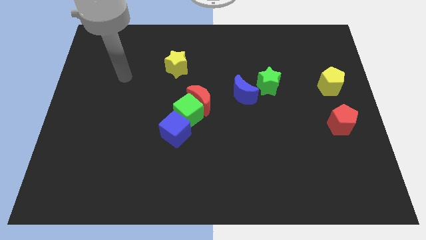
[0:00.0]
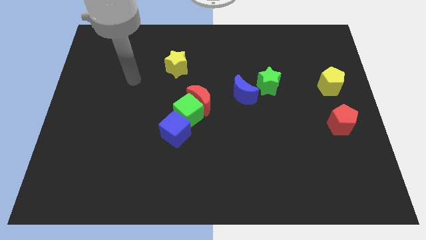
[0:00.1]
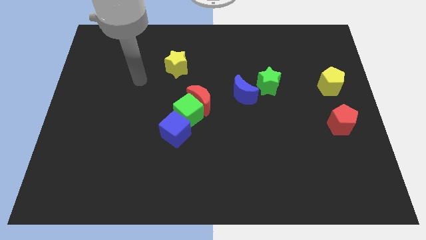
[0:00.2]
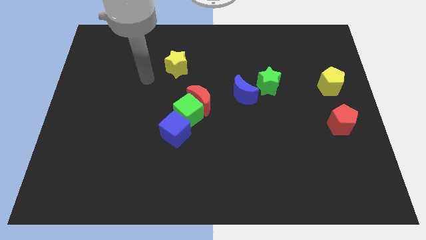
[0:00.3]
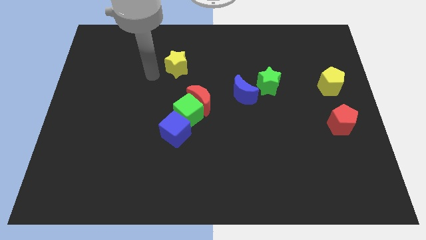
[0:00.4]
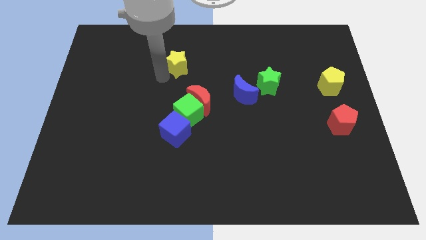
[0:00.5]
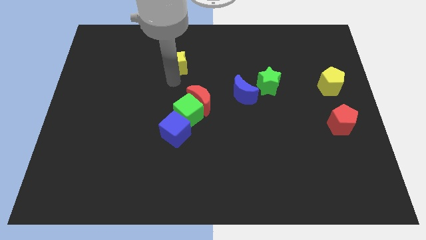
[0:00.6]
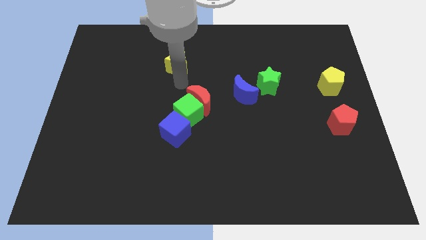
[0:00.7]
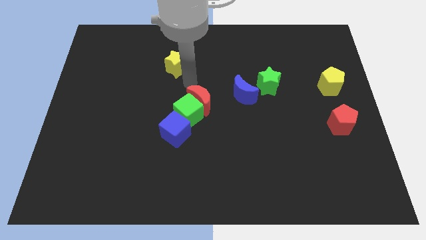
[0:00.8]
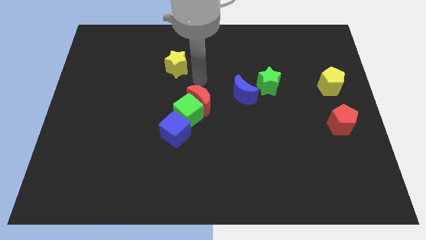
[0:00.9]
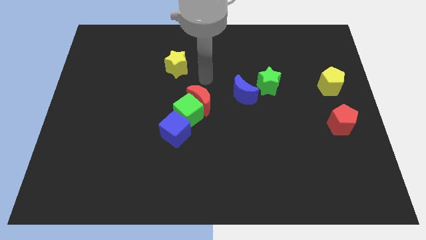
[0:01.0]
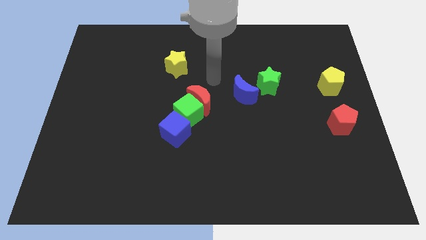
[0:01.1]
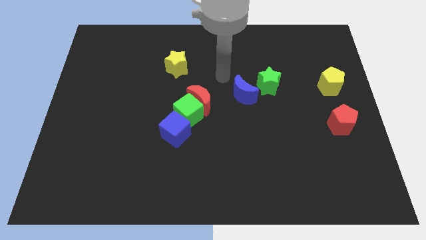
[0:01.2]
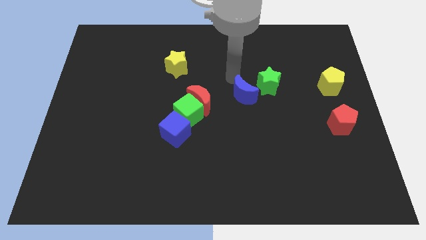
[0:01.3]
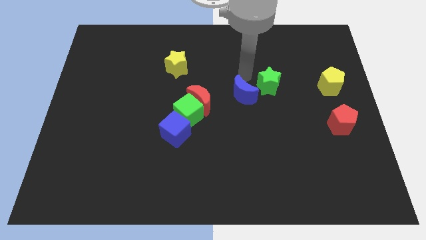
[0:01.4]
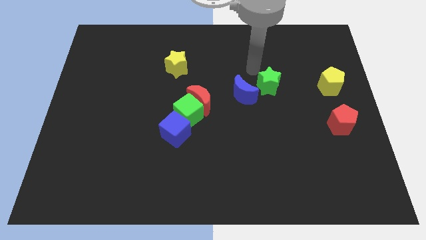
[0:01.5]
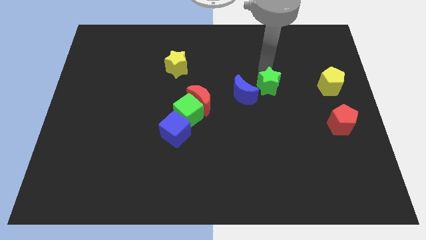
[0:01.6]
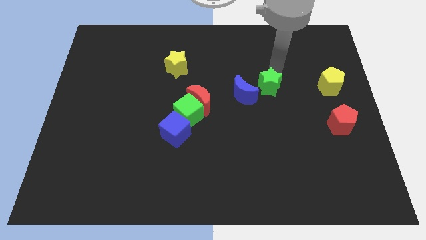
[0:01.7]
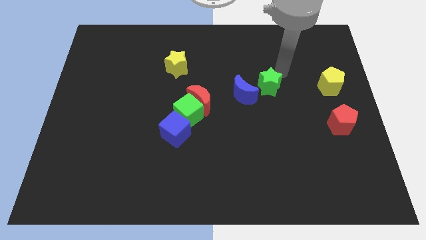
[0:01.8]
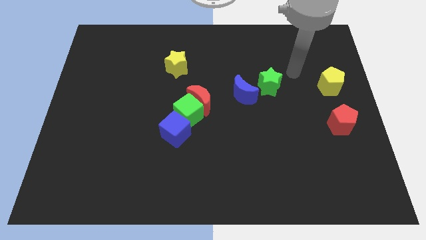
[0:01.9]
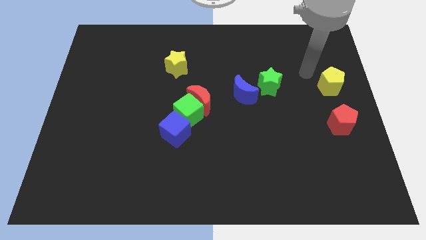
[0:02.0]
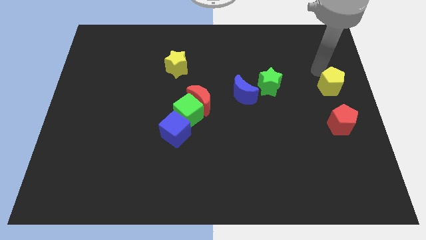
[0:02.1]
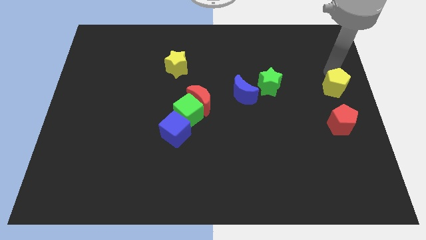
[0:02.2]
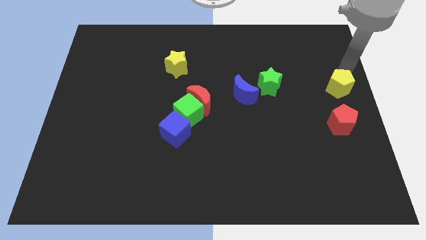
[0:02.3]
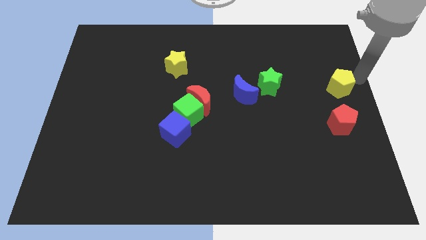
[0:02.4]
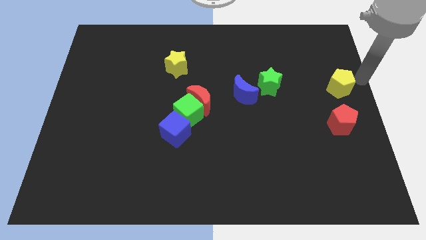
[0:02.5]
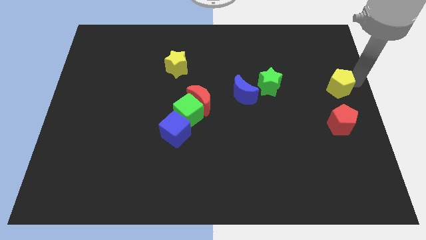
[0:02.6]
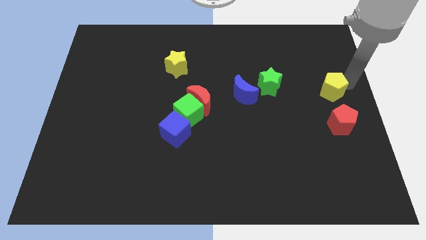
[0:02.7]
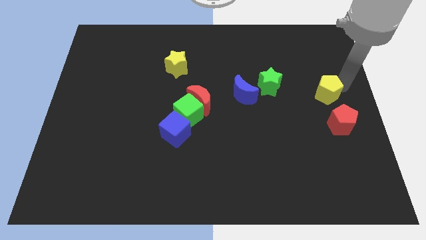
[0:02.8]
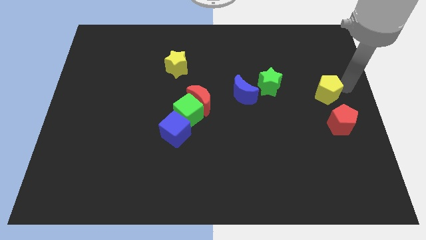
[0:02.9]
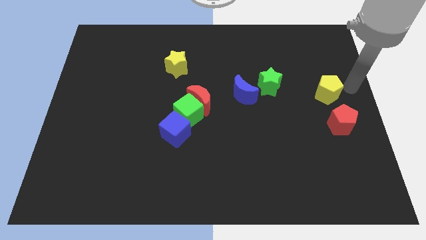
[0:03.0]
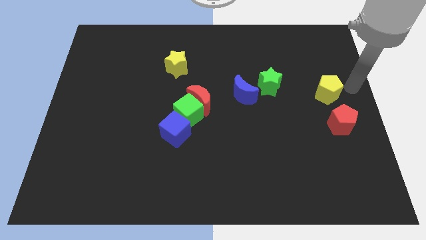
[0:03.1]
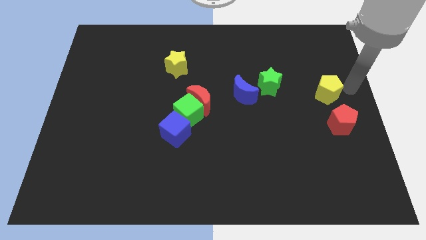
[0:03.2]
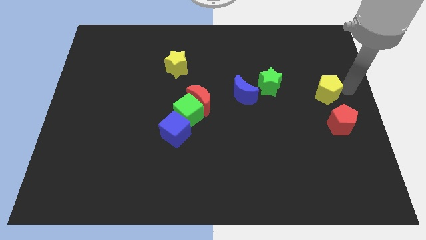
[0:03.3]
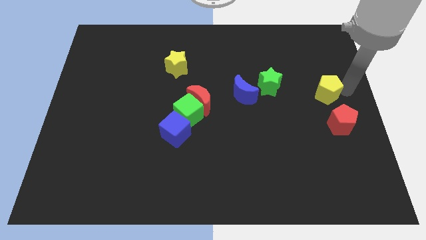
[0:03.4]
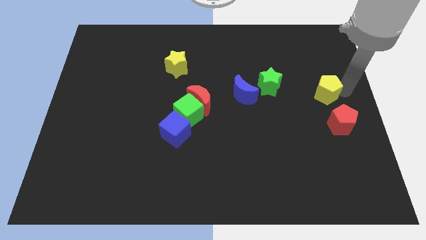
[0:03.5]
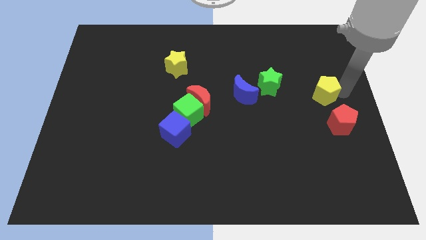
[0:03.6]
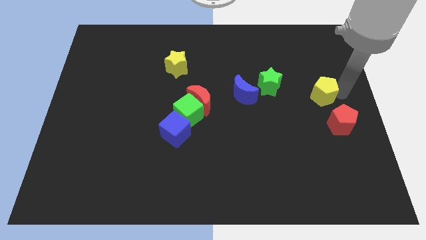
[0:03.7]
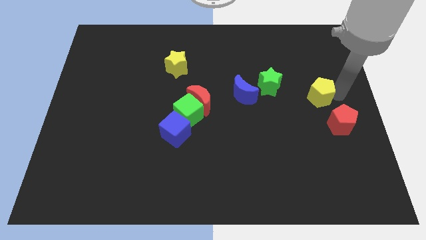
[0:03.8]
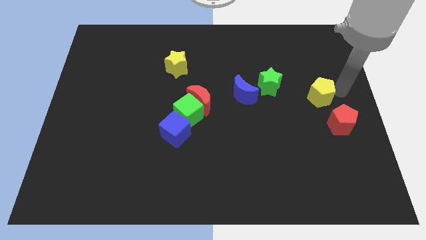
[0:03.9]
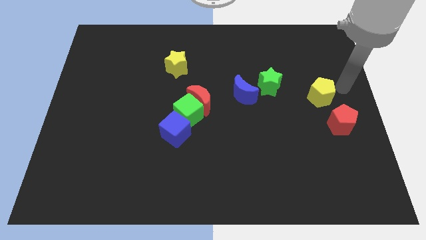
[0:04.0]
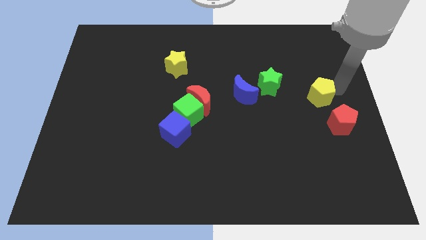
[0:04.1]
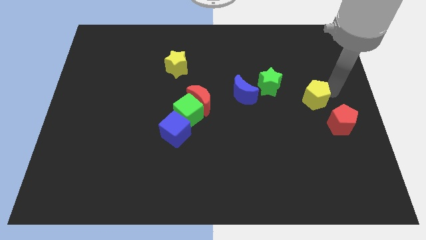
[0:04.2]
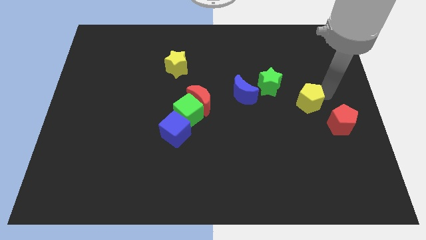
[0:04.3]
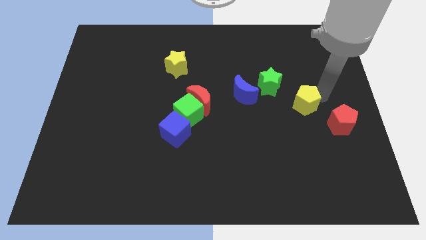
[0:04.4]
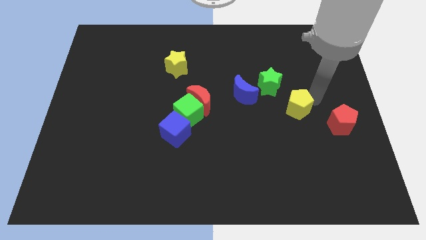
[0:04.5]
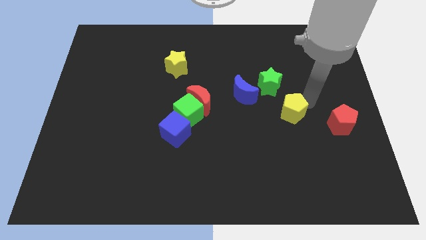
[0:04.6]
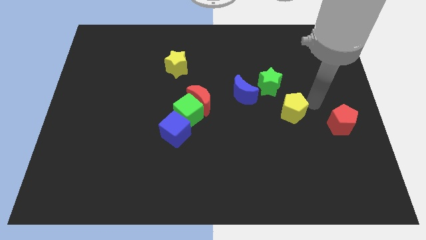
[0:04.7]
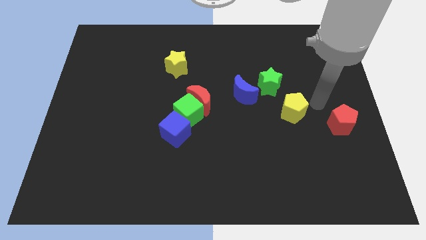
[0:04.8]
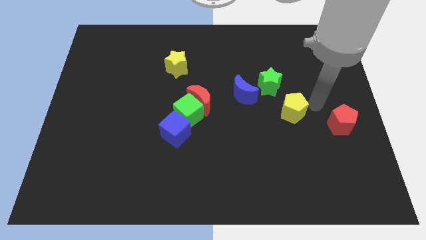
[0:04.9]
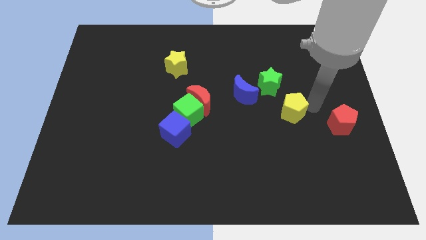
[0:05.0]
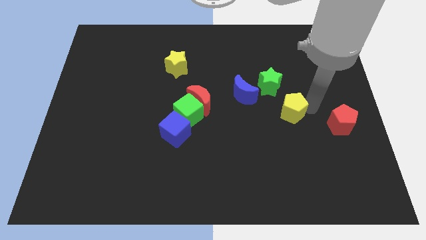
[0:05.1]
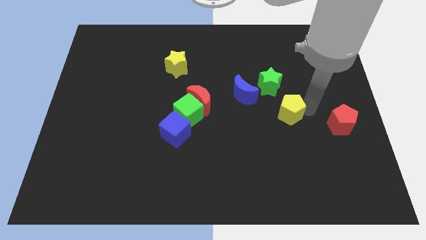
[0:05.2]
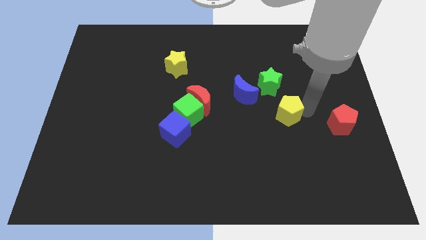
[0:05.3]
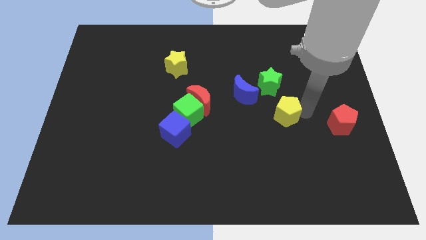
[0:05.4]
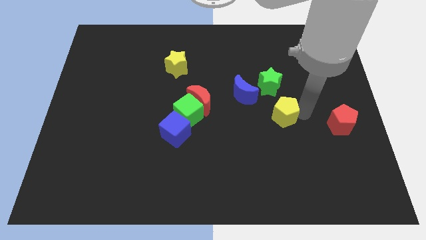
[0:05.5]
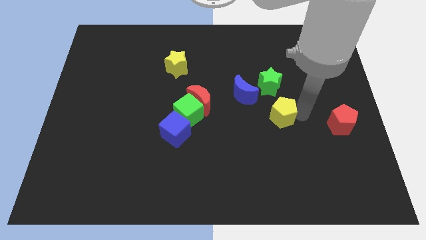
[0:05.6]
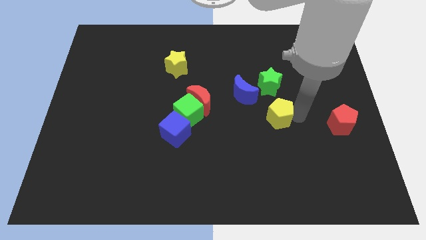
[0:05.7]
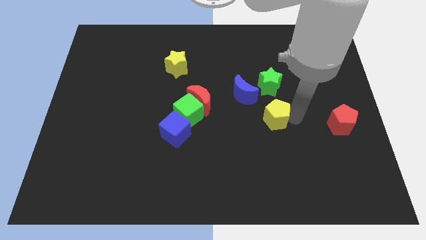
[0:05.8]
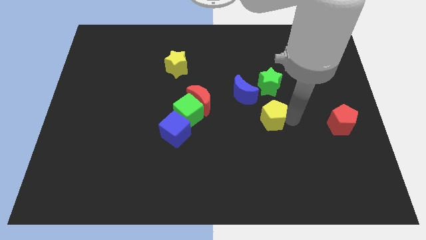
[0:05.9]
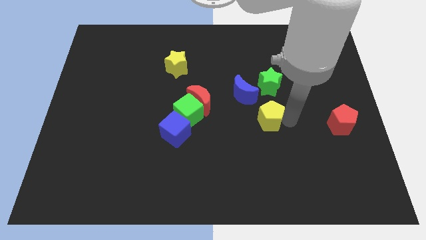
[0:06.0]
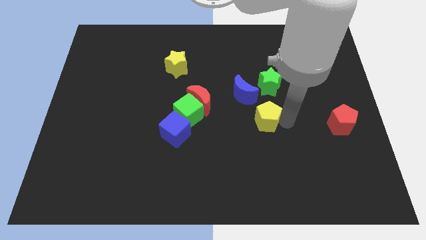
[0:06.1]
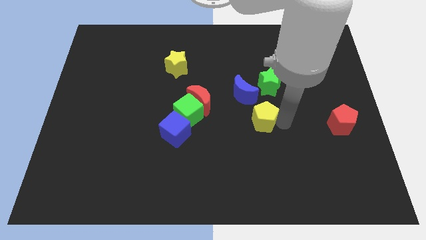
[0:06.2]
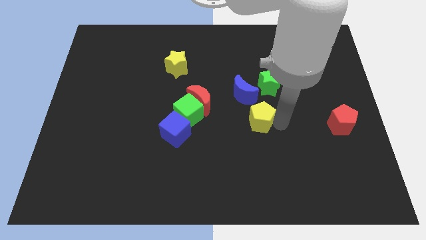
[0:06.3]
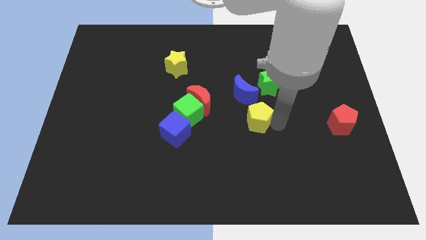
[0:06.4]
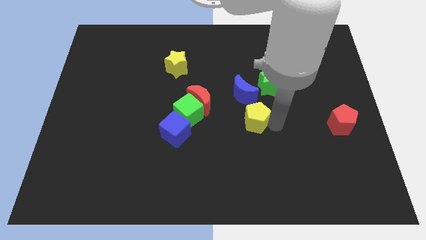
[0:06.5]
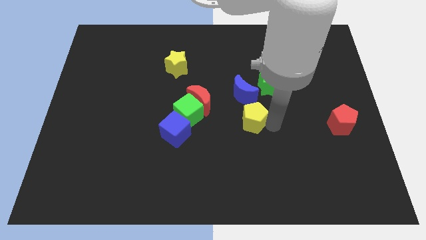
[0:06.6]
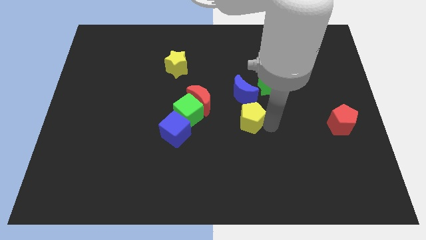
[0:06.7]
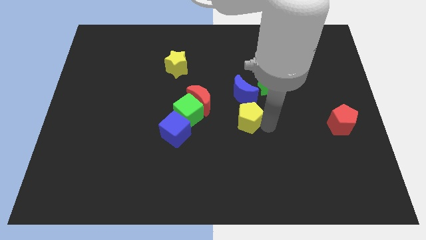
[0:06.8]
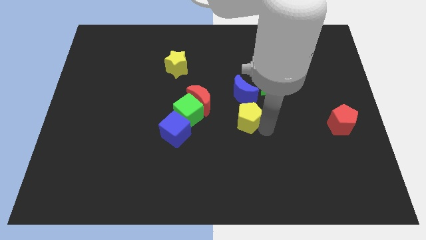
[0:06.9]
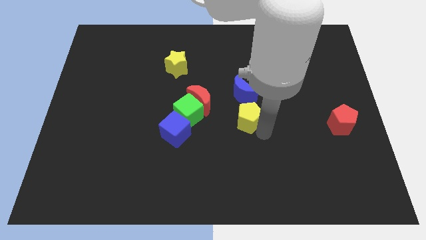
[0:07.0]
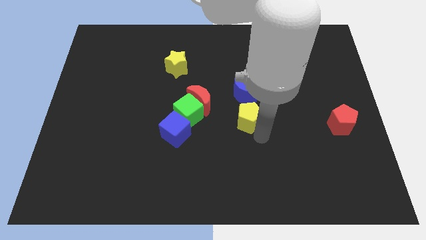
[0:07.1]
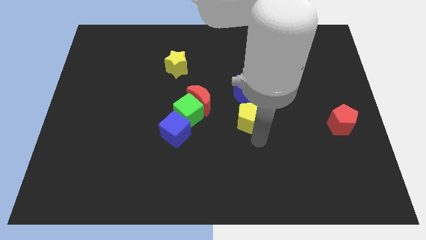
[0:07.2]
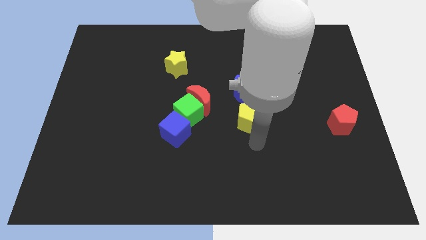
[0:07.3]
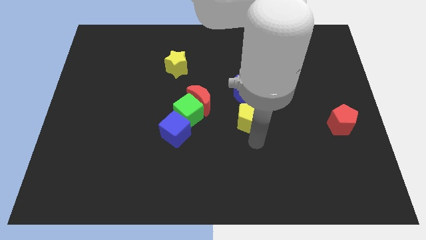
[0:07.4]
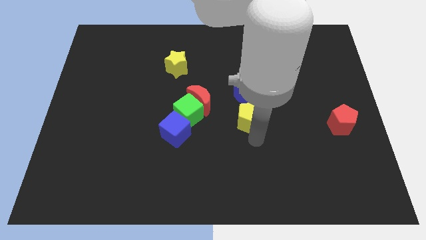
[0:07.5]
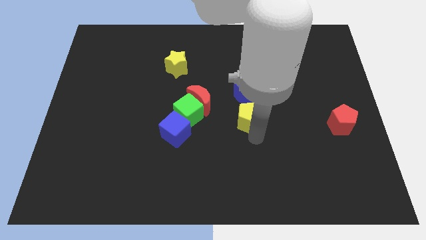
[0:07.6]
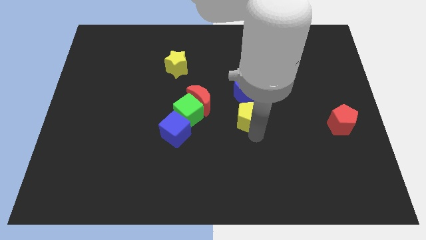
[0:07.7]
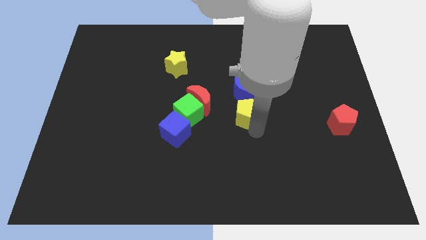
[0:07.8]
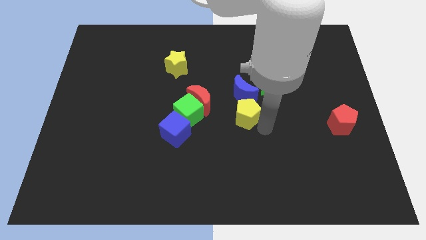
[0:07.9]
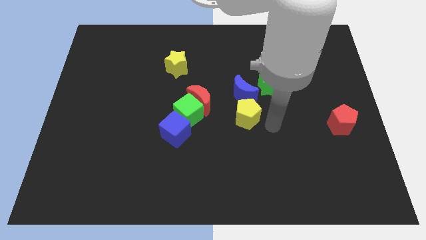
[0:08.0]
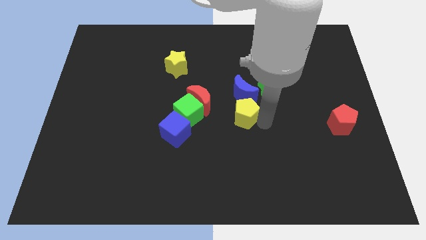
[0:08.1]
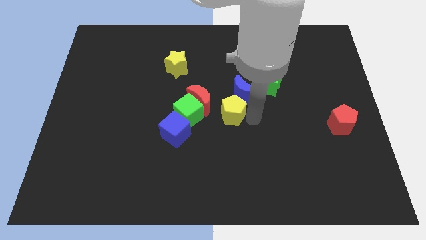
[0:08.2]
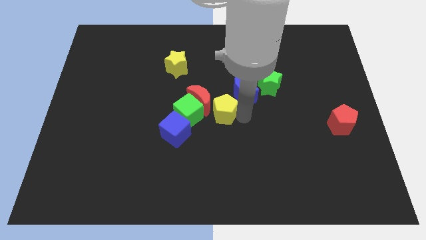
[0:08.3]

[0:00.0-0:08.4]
slide the yellow pentagon close to the red moon
